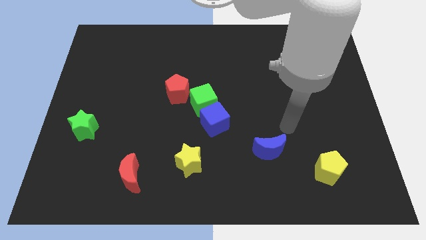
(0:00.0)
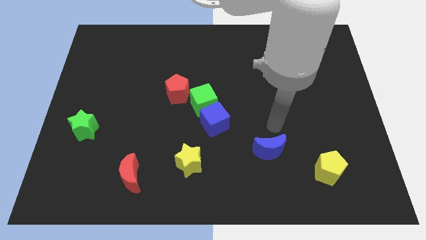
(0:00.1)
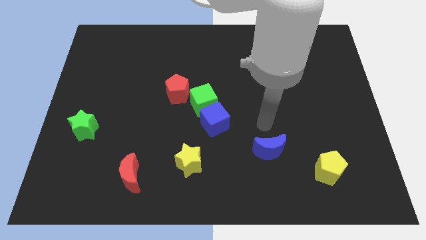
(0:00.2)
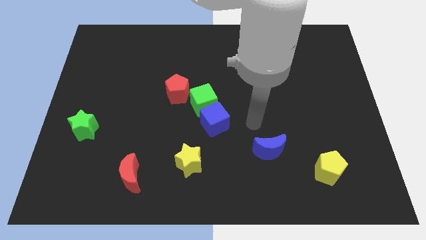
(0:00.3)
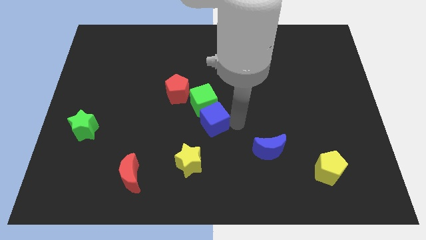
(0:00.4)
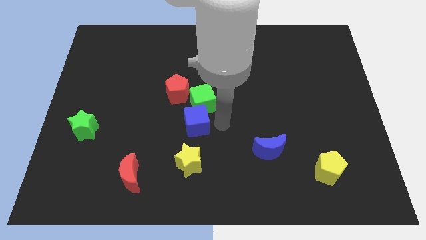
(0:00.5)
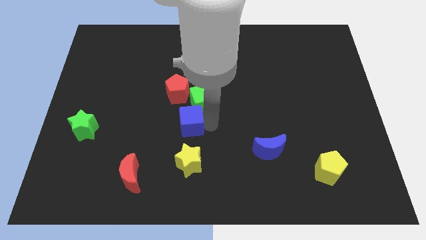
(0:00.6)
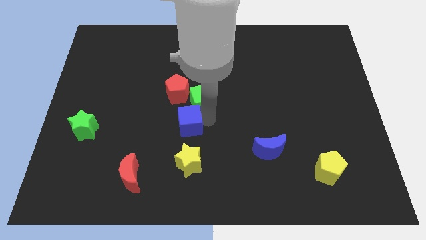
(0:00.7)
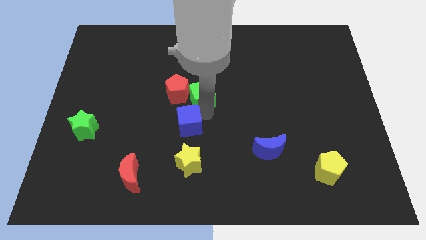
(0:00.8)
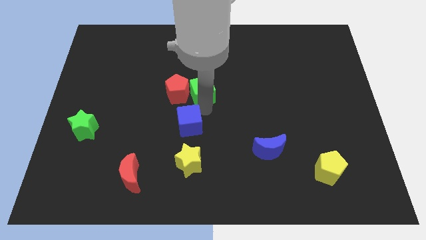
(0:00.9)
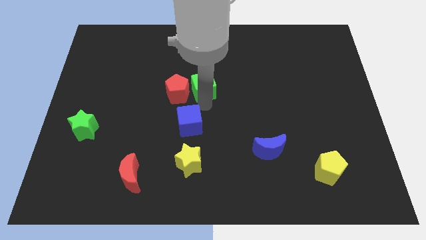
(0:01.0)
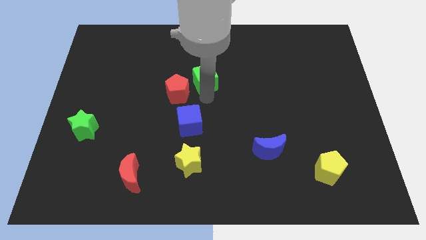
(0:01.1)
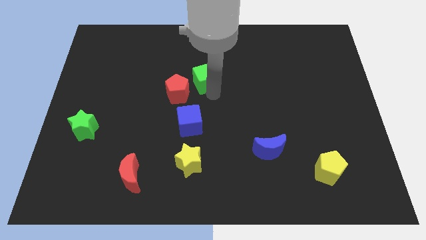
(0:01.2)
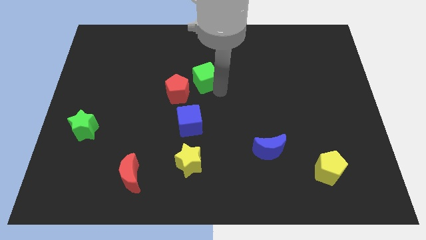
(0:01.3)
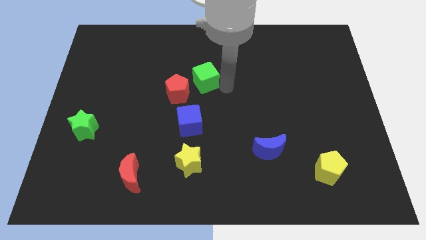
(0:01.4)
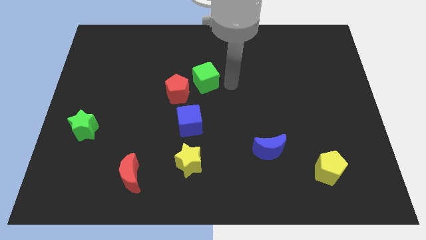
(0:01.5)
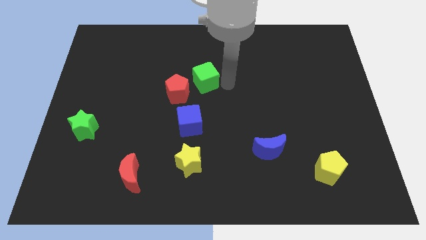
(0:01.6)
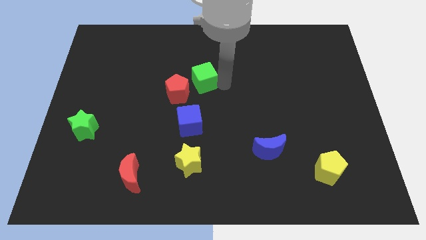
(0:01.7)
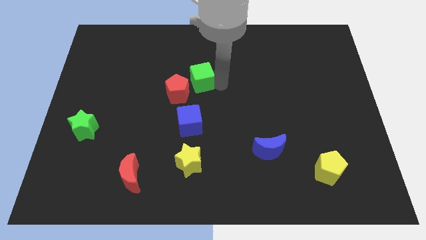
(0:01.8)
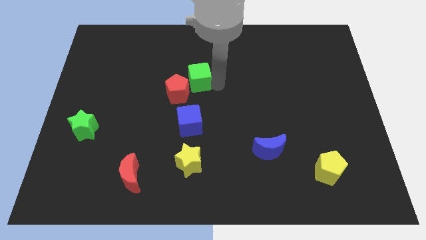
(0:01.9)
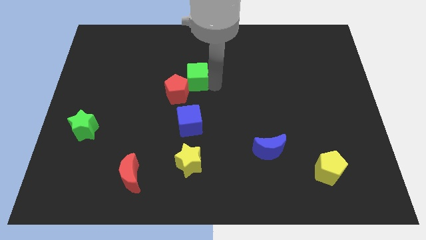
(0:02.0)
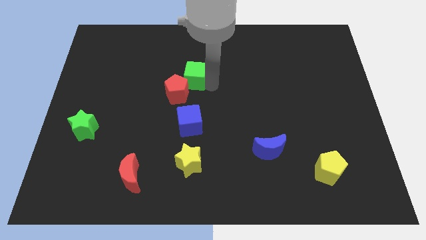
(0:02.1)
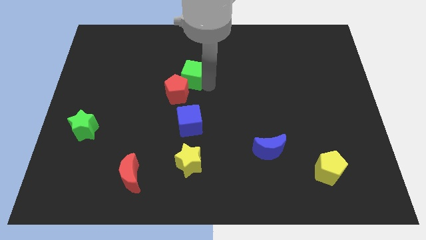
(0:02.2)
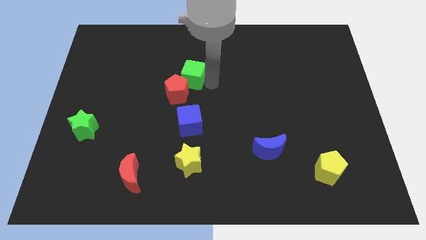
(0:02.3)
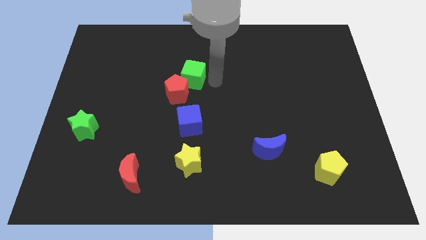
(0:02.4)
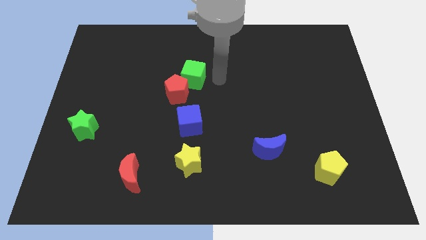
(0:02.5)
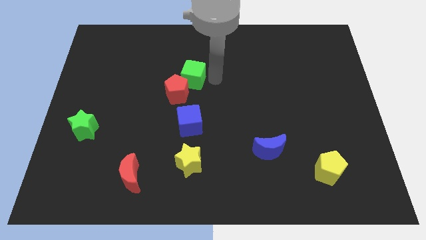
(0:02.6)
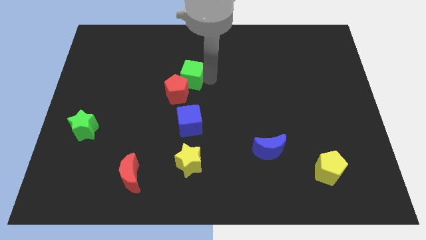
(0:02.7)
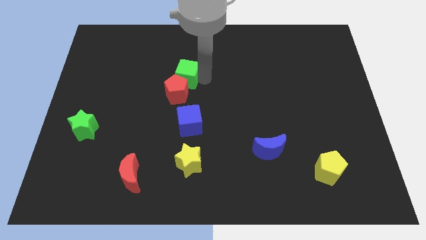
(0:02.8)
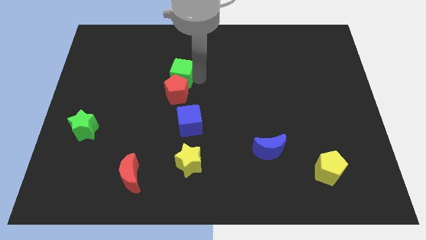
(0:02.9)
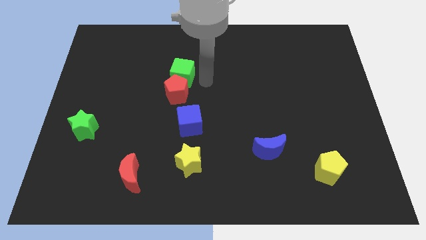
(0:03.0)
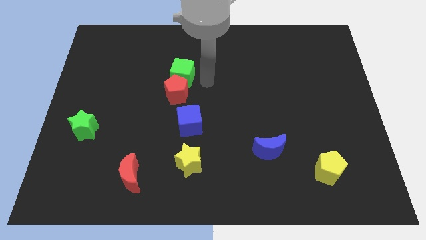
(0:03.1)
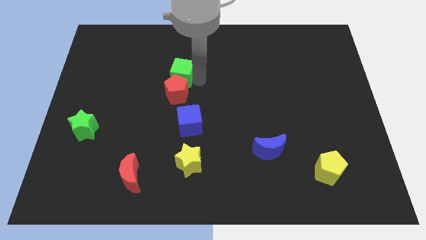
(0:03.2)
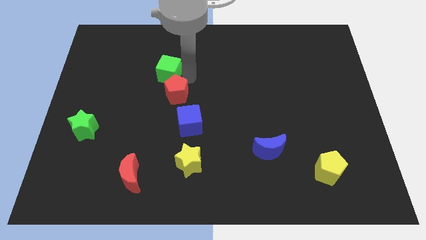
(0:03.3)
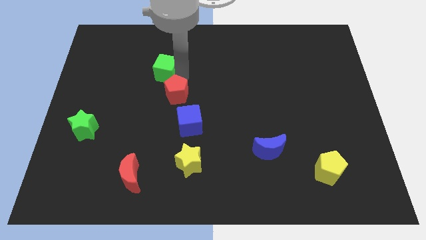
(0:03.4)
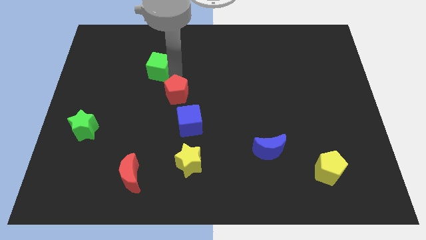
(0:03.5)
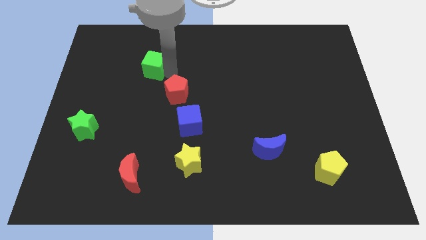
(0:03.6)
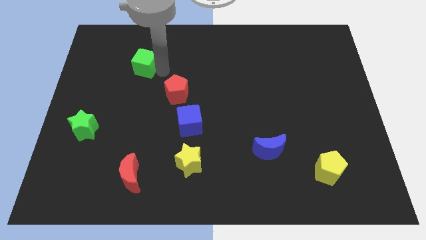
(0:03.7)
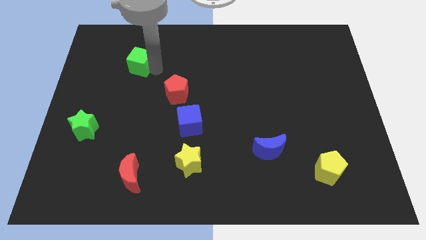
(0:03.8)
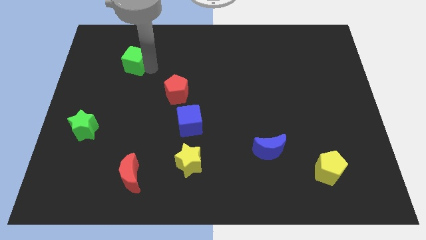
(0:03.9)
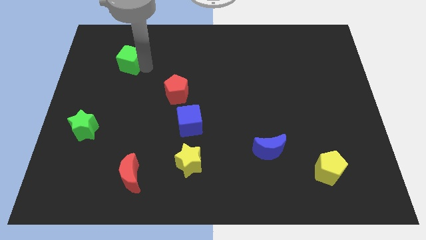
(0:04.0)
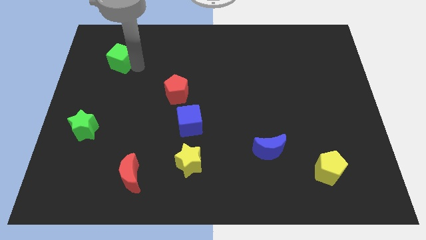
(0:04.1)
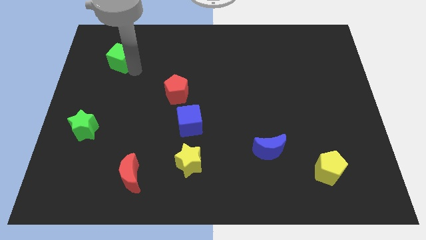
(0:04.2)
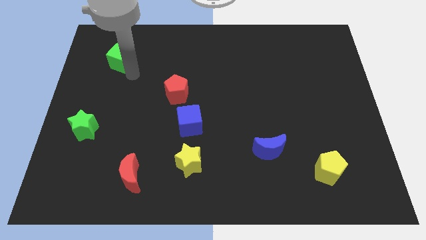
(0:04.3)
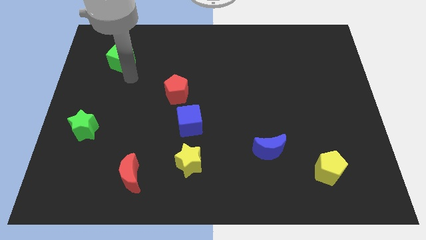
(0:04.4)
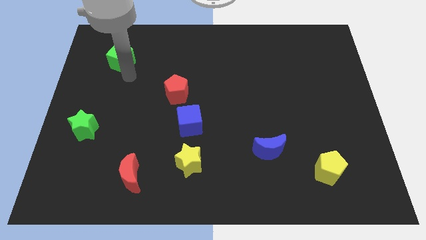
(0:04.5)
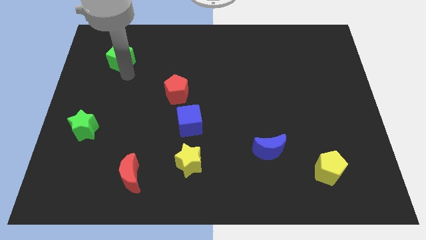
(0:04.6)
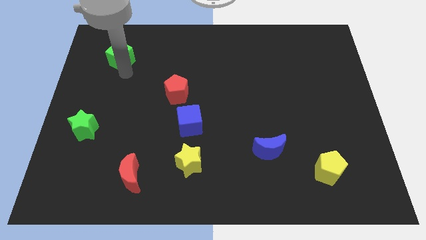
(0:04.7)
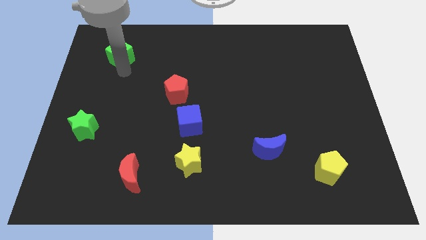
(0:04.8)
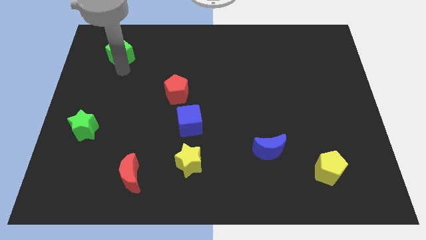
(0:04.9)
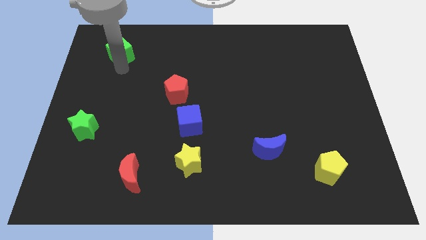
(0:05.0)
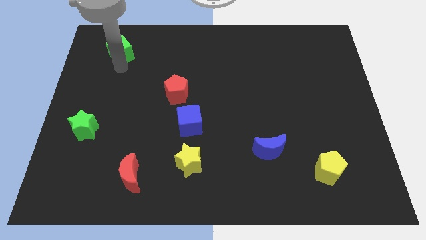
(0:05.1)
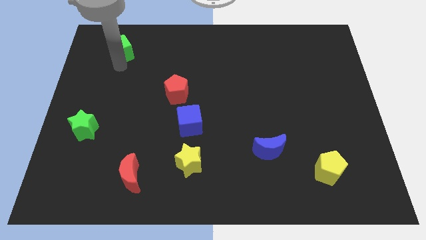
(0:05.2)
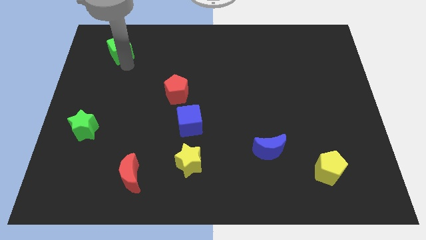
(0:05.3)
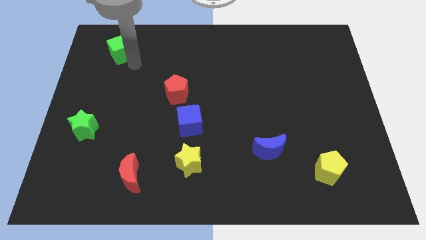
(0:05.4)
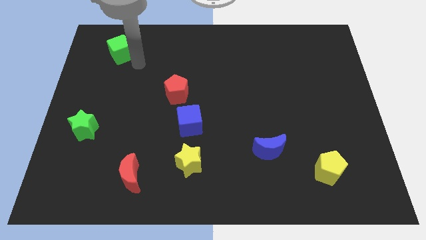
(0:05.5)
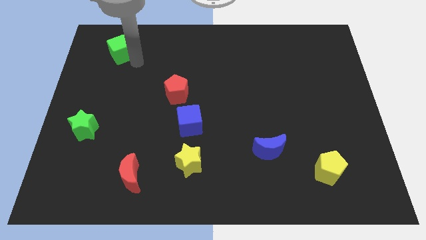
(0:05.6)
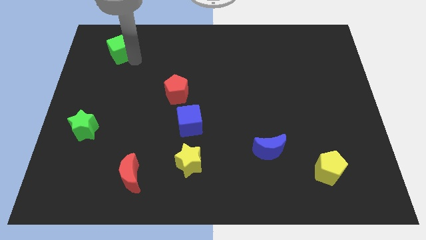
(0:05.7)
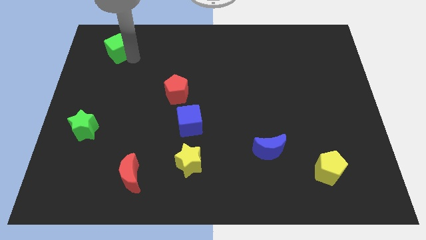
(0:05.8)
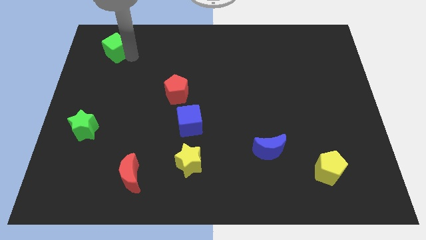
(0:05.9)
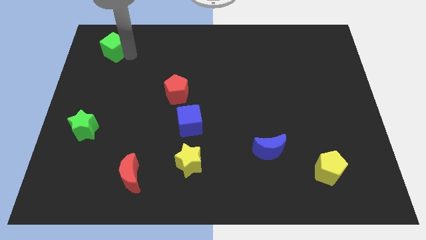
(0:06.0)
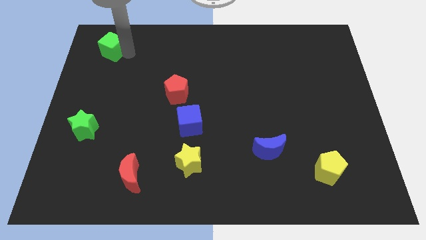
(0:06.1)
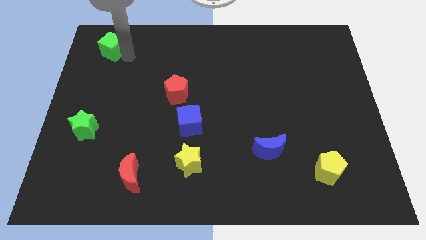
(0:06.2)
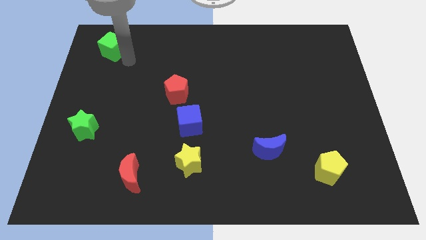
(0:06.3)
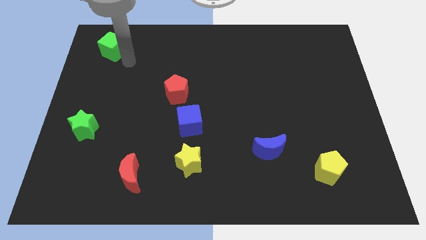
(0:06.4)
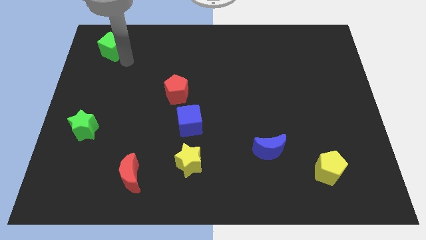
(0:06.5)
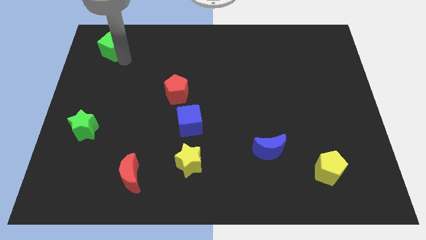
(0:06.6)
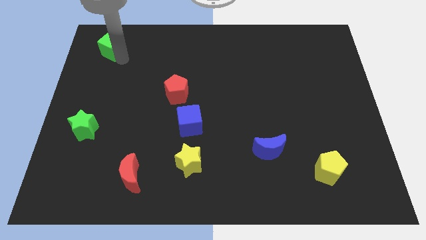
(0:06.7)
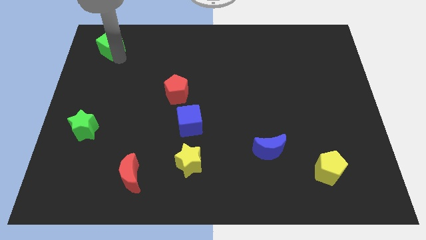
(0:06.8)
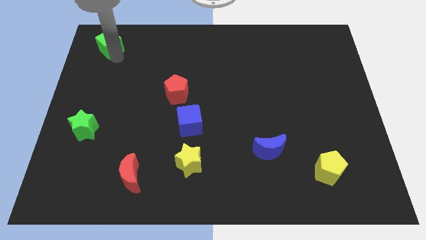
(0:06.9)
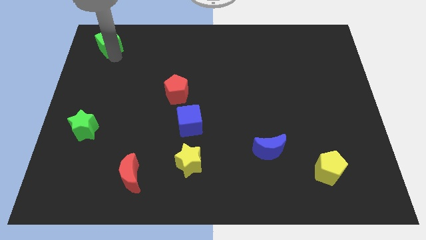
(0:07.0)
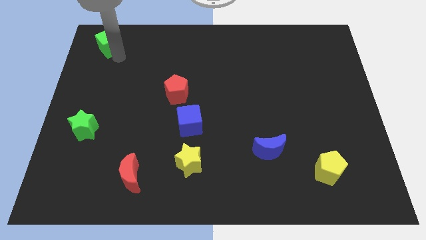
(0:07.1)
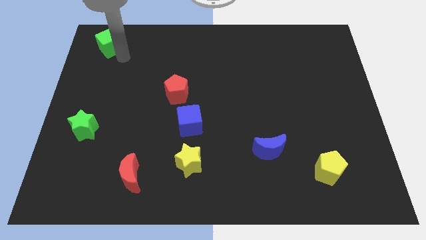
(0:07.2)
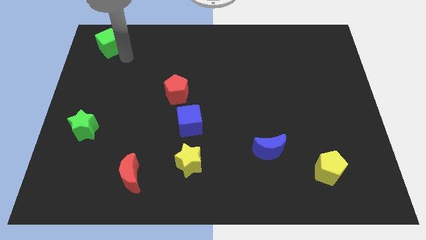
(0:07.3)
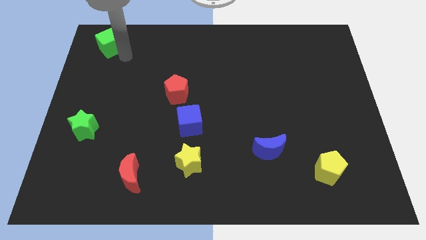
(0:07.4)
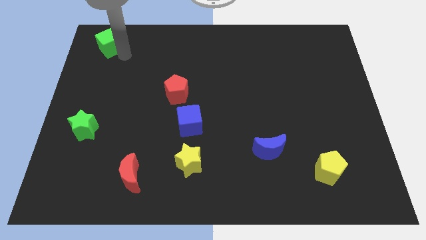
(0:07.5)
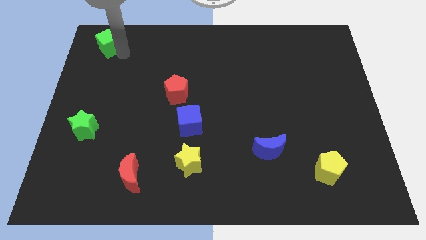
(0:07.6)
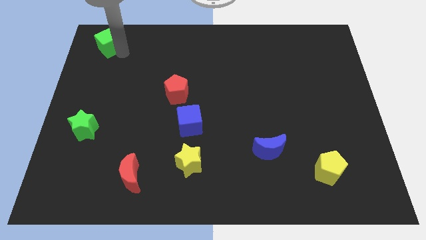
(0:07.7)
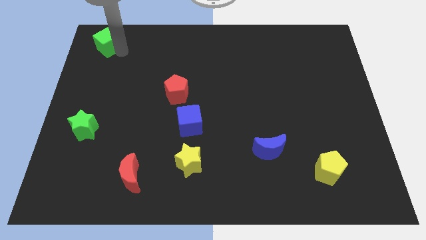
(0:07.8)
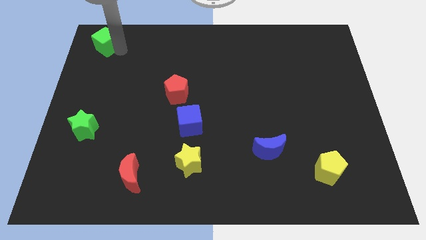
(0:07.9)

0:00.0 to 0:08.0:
slide the green cube to the top left of the board
